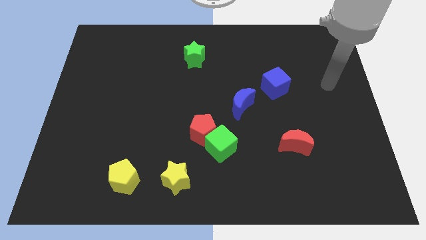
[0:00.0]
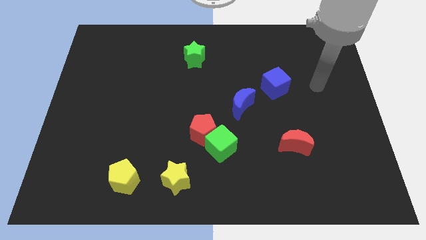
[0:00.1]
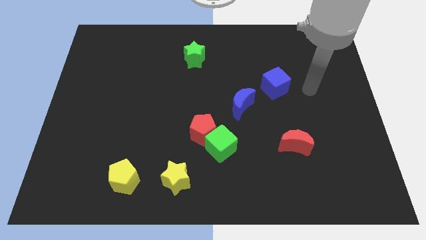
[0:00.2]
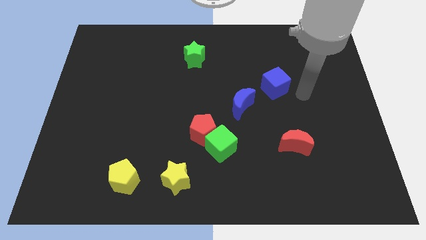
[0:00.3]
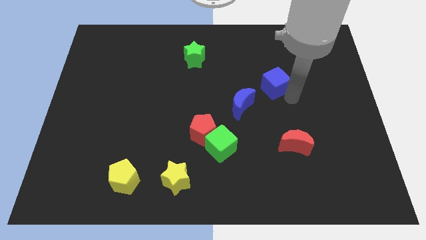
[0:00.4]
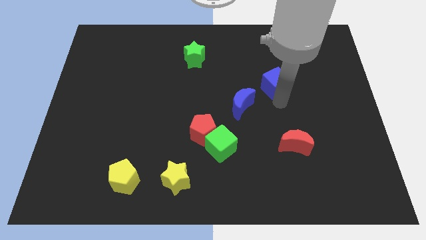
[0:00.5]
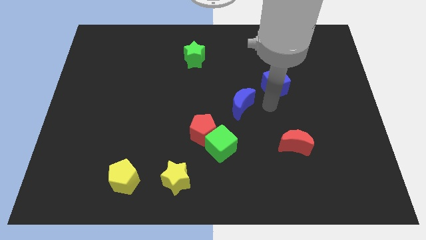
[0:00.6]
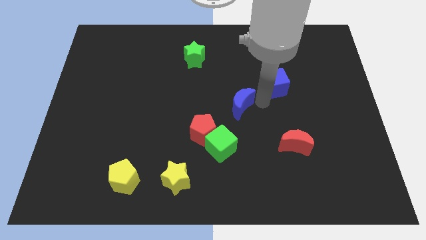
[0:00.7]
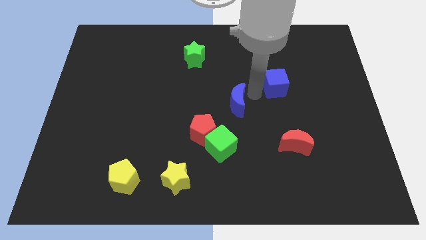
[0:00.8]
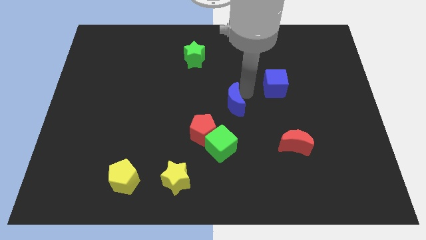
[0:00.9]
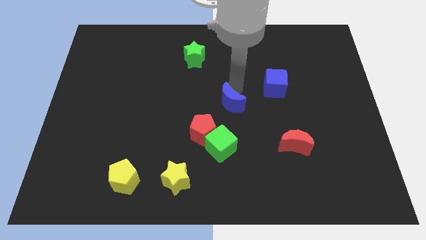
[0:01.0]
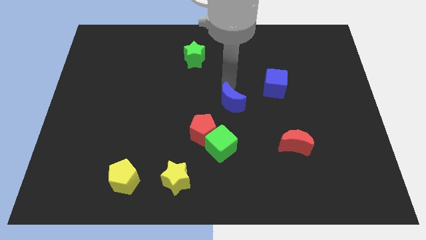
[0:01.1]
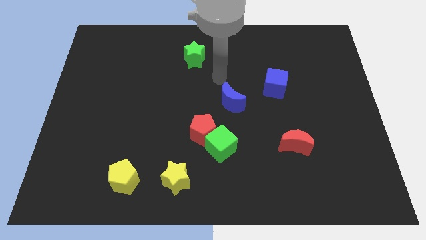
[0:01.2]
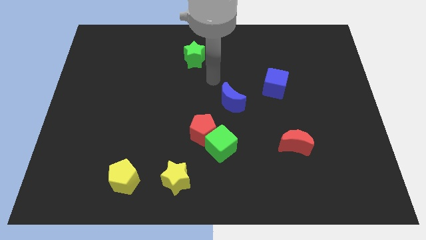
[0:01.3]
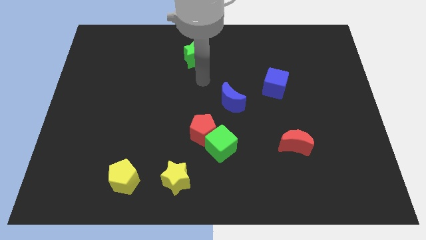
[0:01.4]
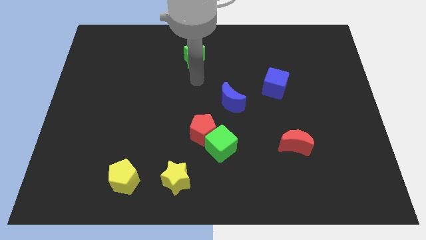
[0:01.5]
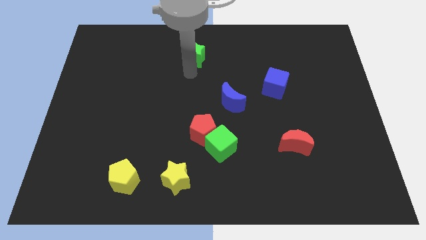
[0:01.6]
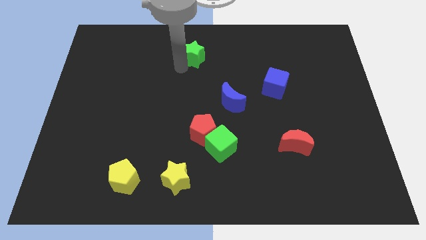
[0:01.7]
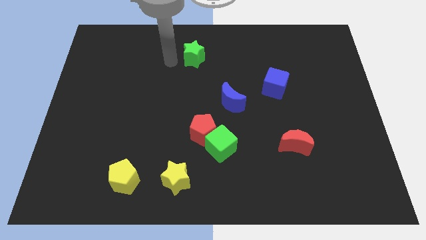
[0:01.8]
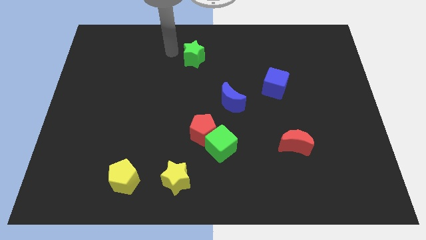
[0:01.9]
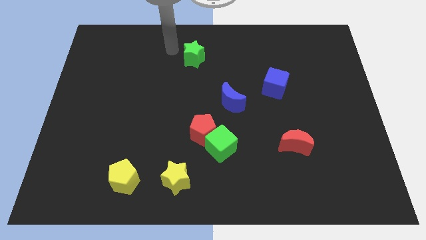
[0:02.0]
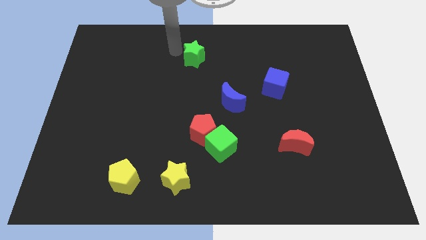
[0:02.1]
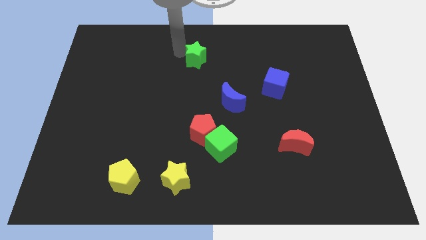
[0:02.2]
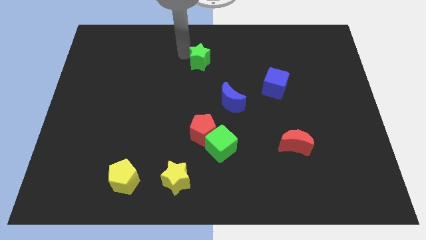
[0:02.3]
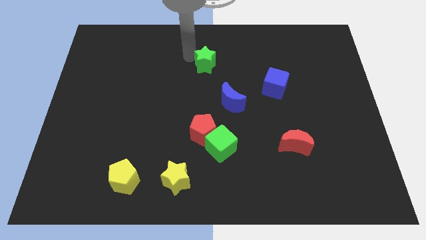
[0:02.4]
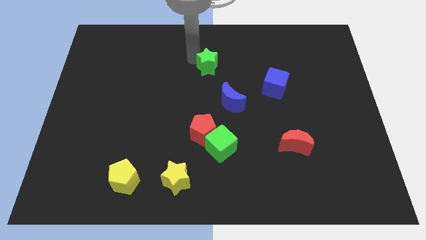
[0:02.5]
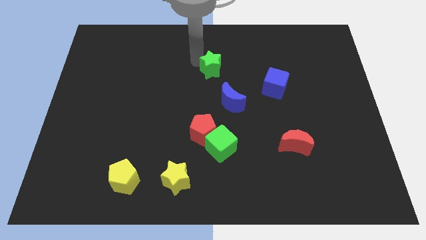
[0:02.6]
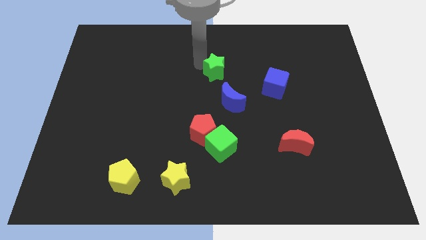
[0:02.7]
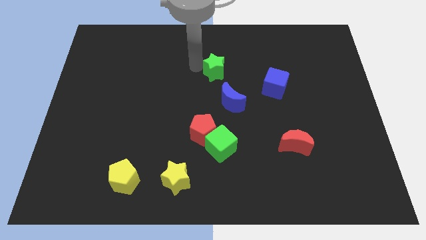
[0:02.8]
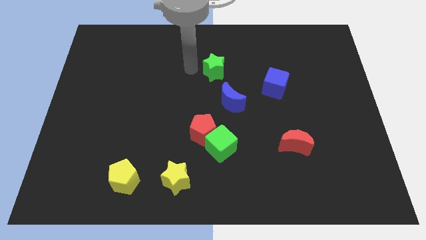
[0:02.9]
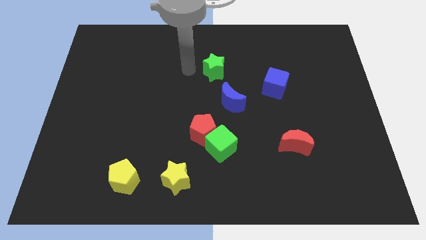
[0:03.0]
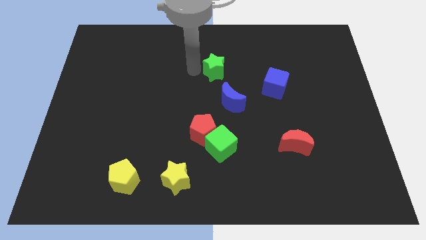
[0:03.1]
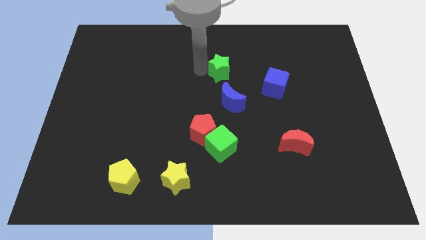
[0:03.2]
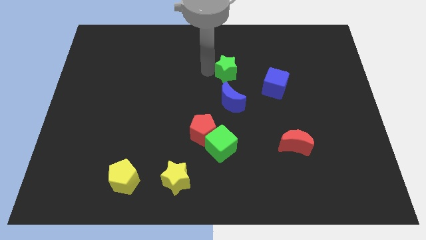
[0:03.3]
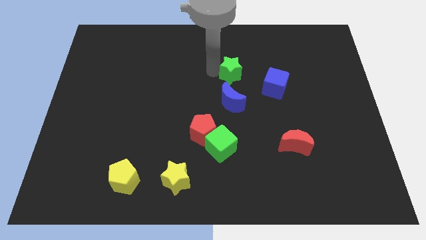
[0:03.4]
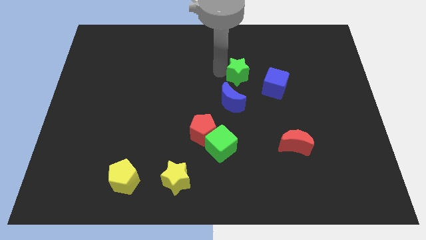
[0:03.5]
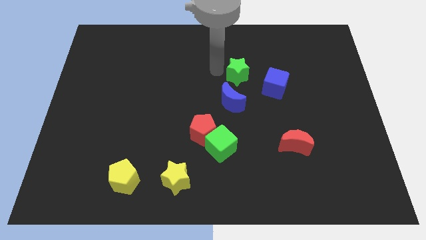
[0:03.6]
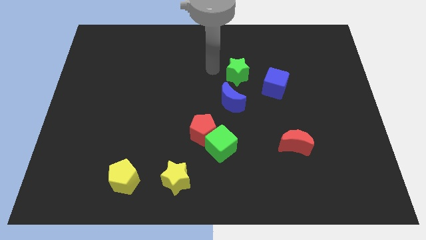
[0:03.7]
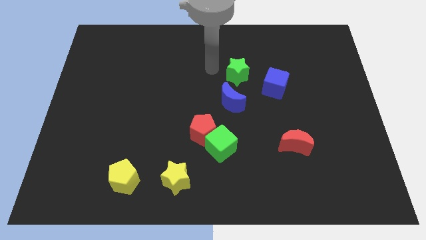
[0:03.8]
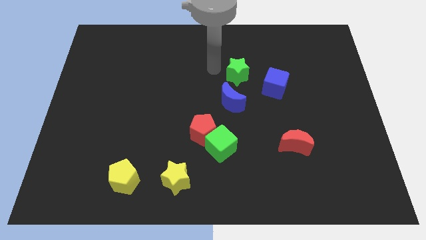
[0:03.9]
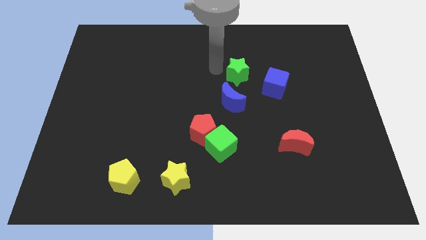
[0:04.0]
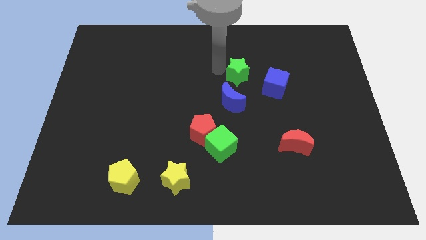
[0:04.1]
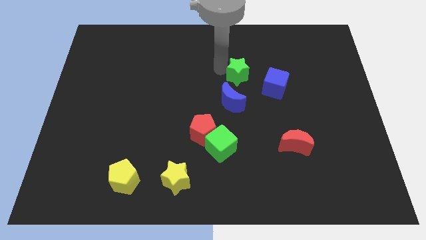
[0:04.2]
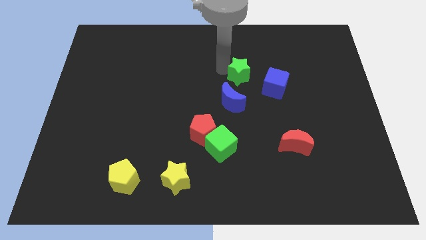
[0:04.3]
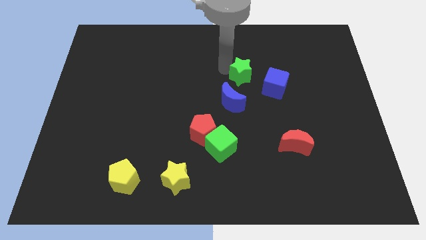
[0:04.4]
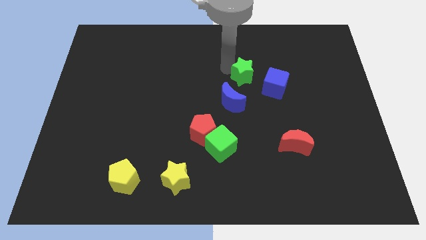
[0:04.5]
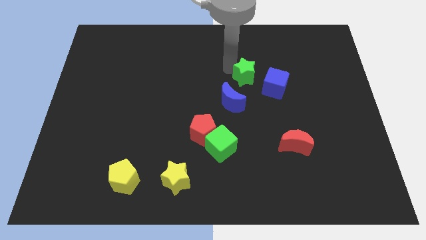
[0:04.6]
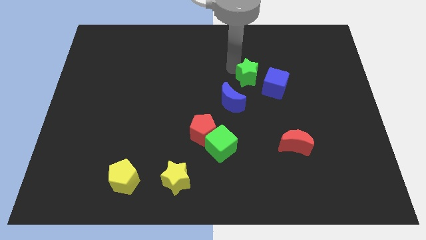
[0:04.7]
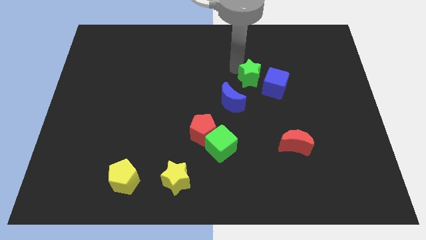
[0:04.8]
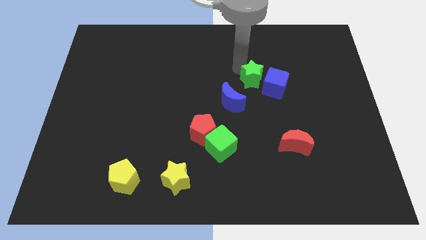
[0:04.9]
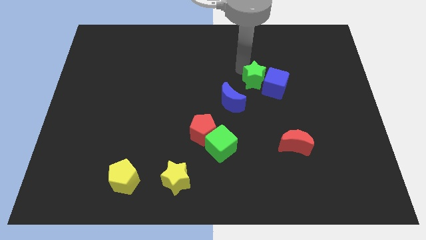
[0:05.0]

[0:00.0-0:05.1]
move the green star towards the blue cube

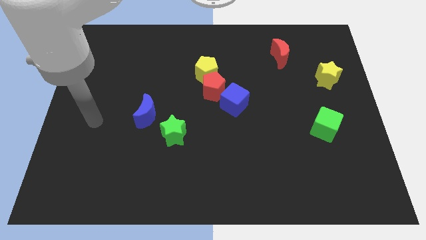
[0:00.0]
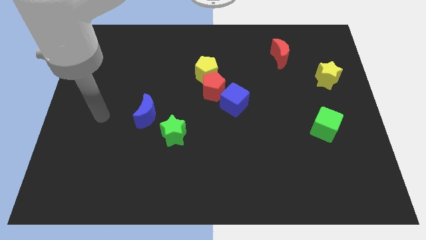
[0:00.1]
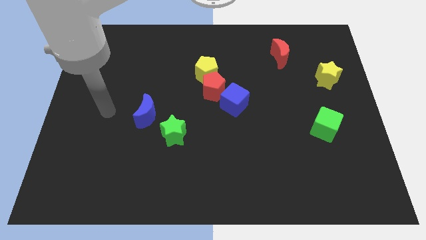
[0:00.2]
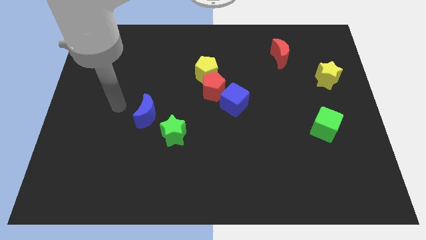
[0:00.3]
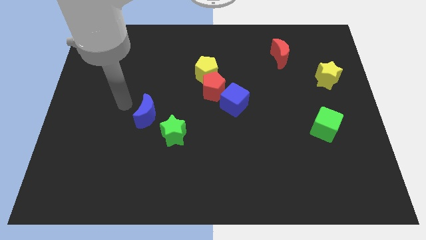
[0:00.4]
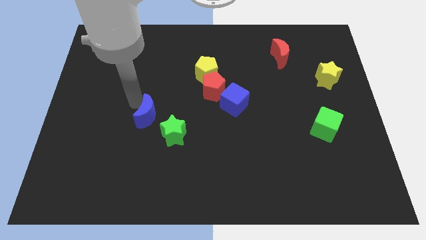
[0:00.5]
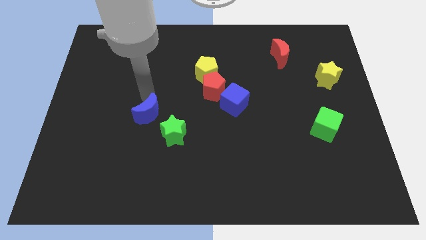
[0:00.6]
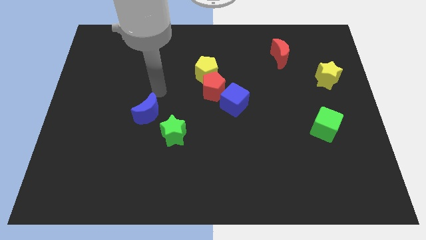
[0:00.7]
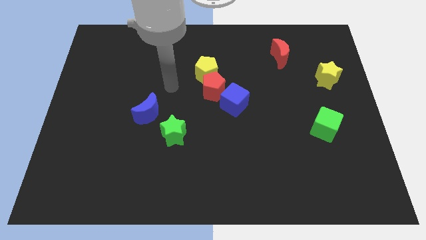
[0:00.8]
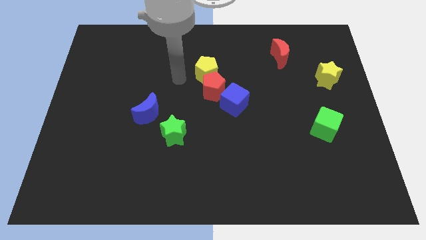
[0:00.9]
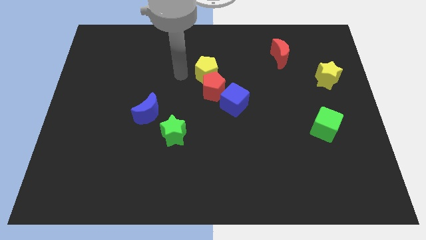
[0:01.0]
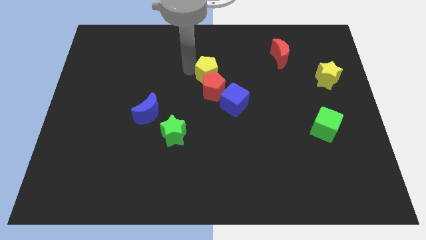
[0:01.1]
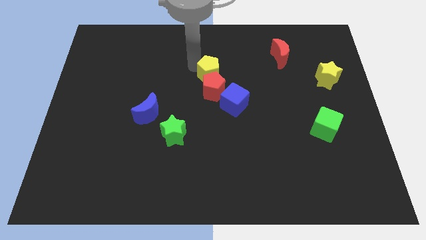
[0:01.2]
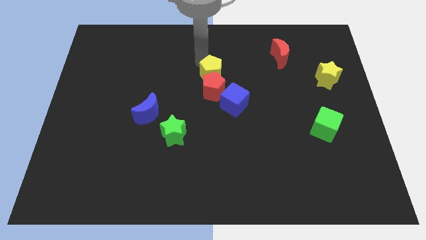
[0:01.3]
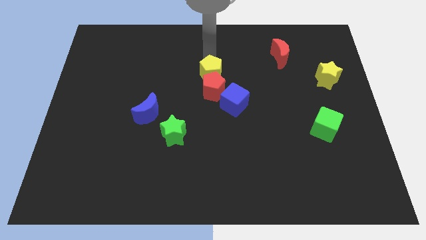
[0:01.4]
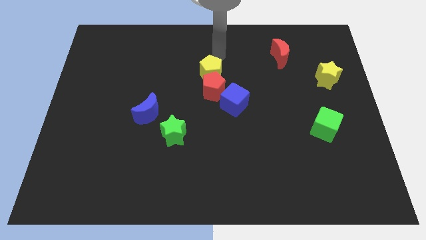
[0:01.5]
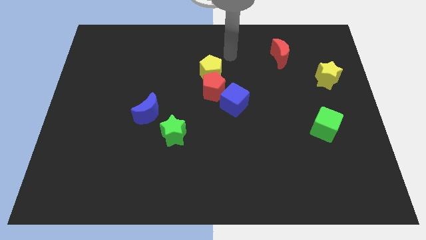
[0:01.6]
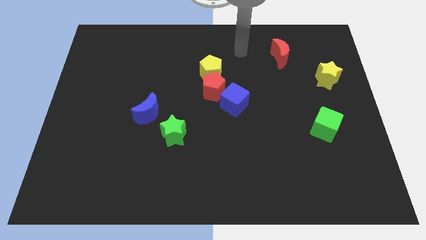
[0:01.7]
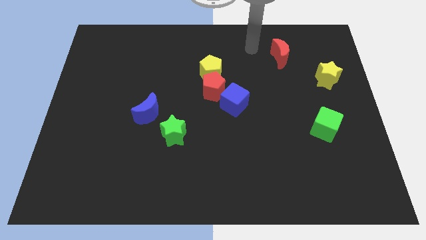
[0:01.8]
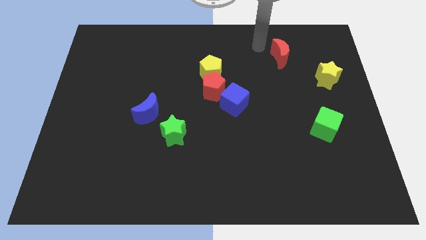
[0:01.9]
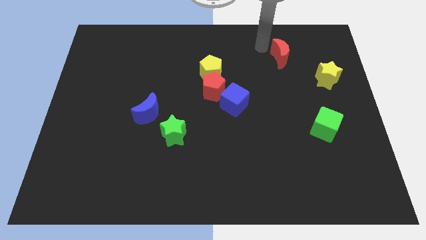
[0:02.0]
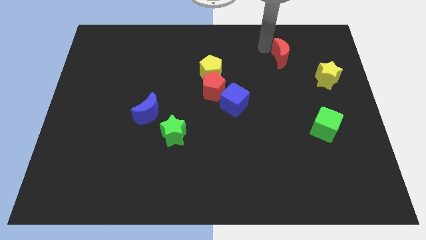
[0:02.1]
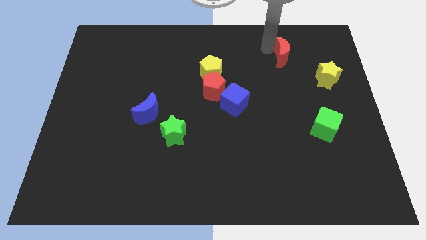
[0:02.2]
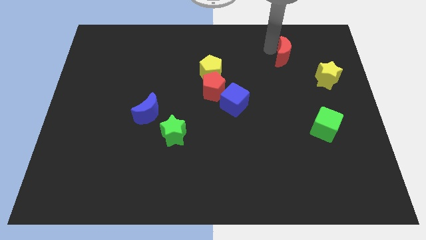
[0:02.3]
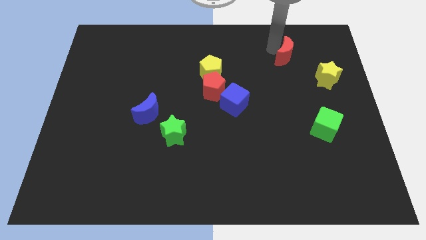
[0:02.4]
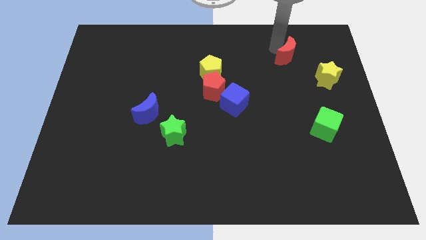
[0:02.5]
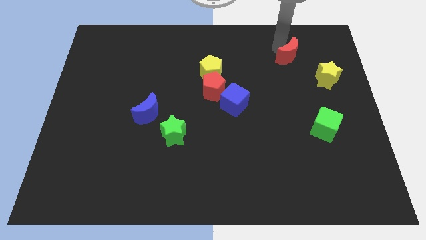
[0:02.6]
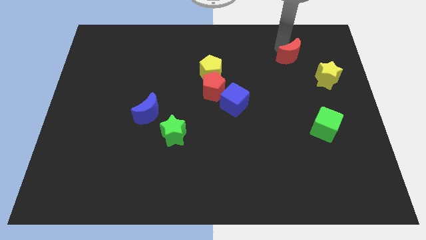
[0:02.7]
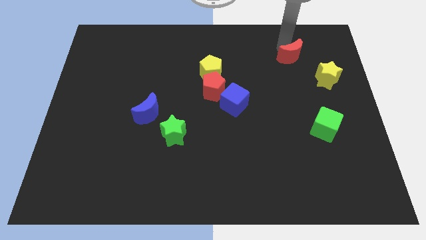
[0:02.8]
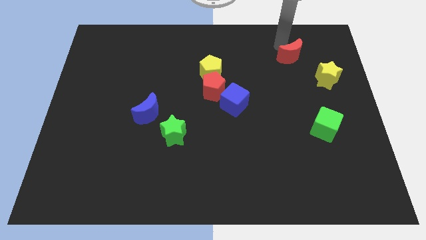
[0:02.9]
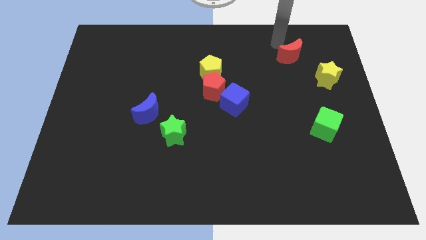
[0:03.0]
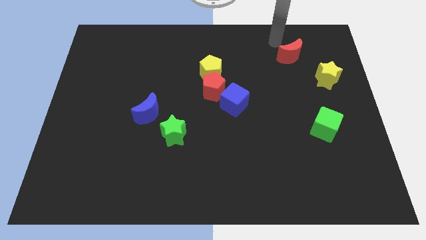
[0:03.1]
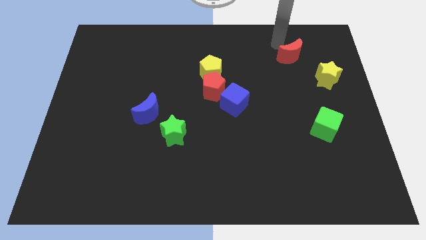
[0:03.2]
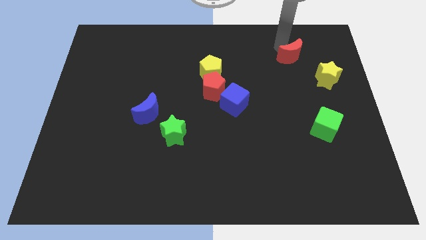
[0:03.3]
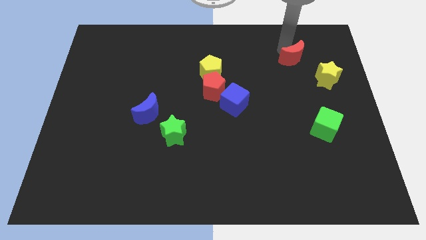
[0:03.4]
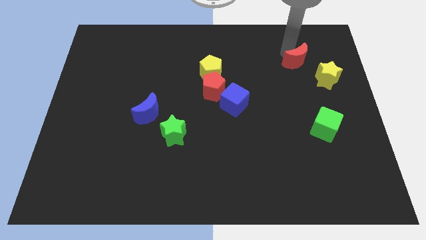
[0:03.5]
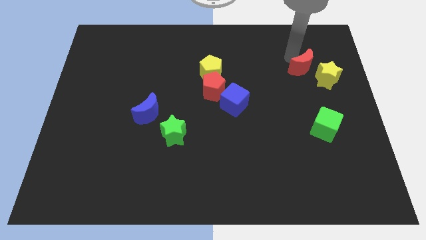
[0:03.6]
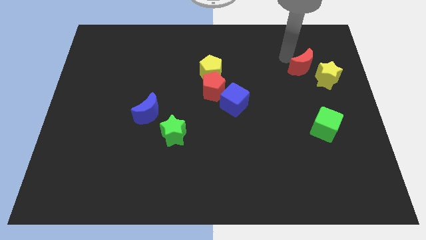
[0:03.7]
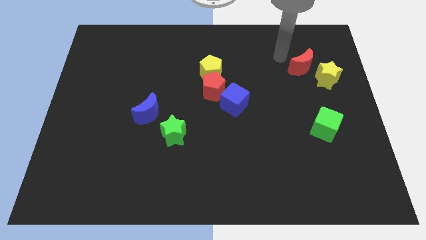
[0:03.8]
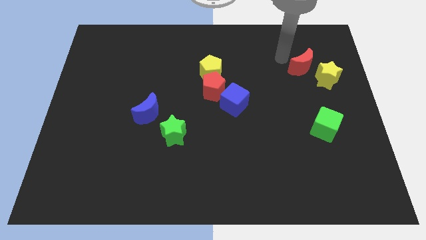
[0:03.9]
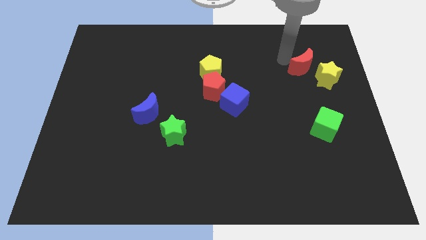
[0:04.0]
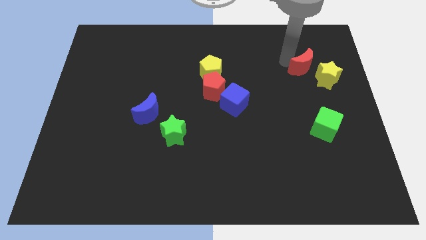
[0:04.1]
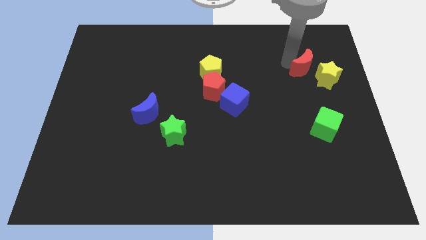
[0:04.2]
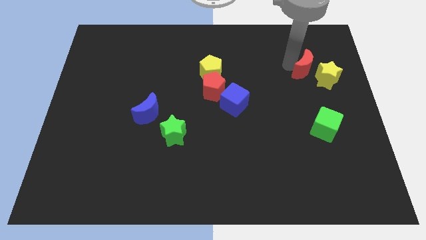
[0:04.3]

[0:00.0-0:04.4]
move the red moon to the yellow star
